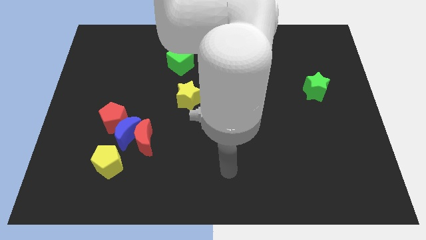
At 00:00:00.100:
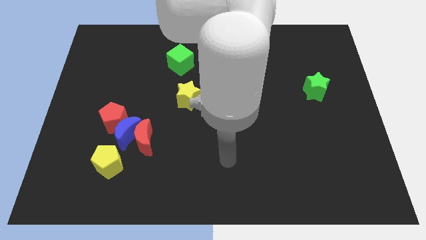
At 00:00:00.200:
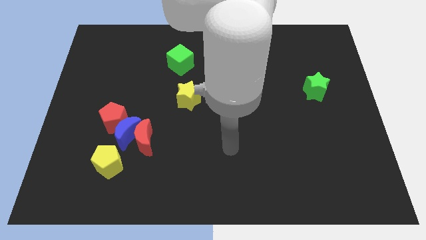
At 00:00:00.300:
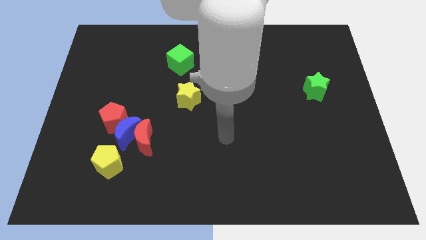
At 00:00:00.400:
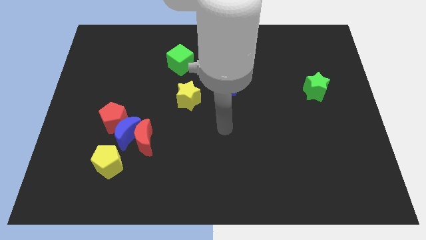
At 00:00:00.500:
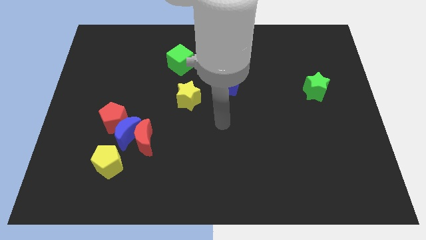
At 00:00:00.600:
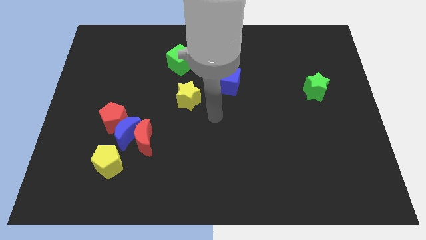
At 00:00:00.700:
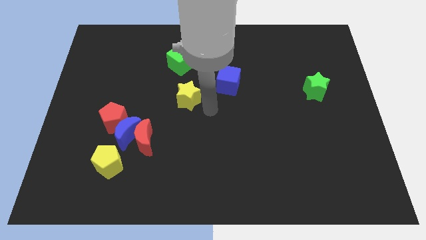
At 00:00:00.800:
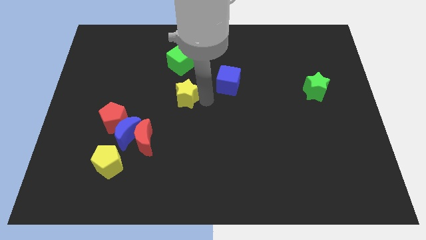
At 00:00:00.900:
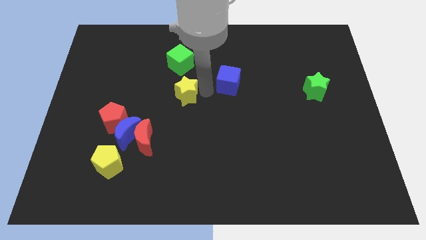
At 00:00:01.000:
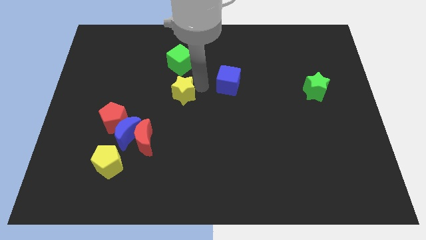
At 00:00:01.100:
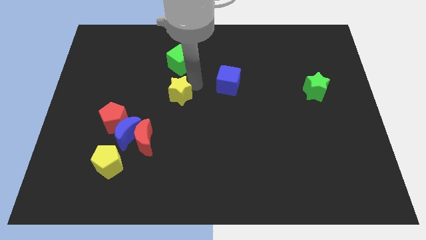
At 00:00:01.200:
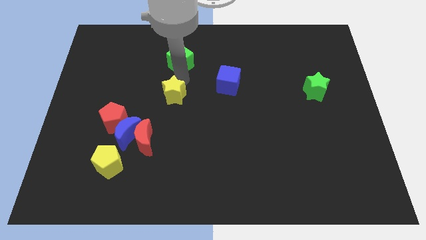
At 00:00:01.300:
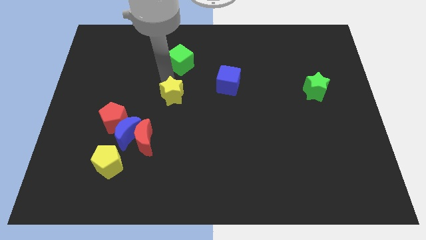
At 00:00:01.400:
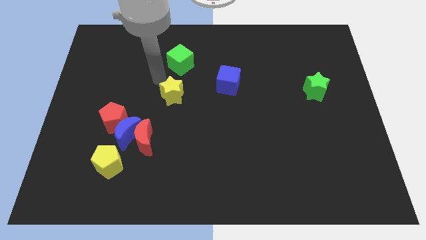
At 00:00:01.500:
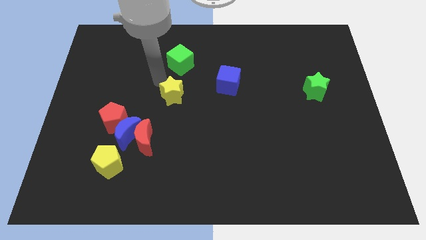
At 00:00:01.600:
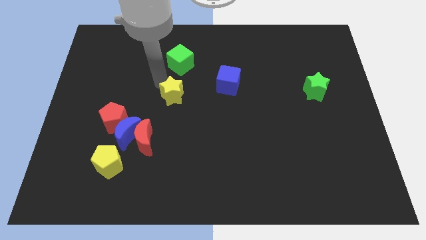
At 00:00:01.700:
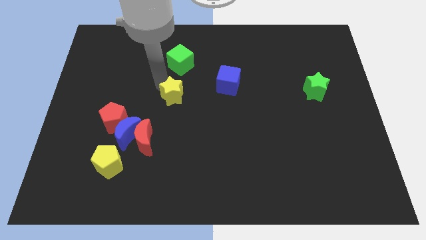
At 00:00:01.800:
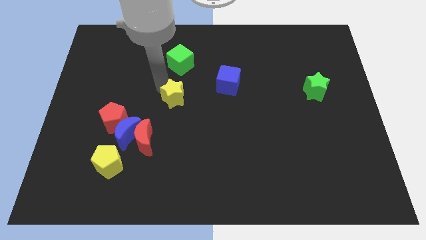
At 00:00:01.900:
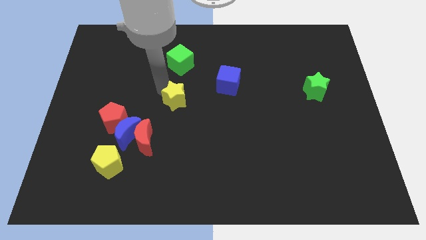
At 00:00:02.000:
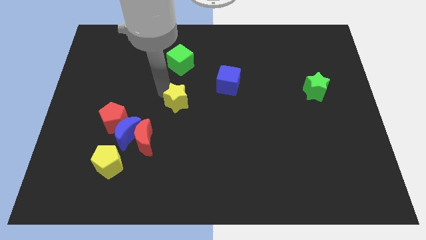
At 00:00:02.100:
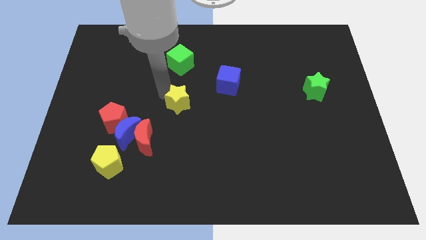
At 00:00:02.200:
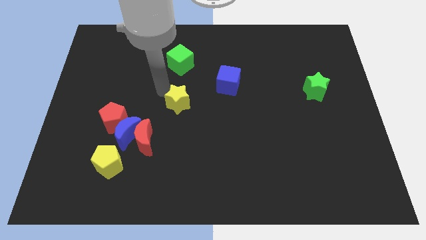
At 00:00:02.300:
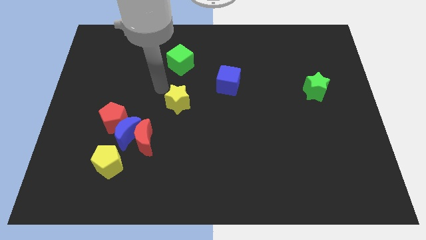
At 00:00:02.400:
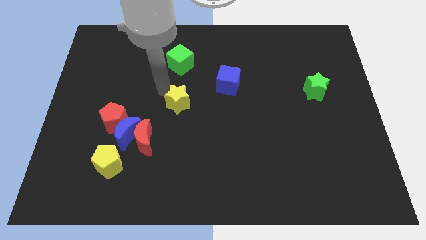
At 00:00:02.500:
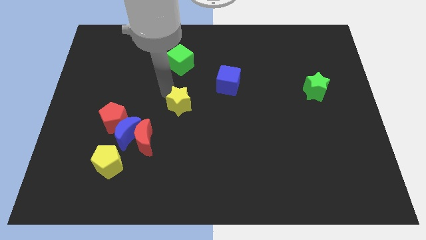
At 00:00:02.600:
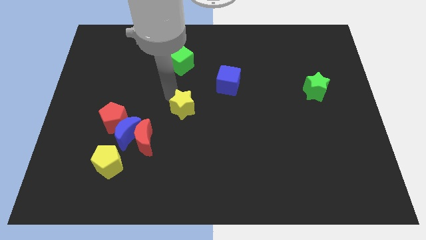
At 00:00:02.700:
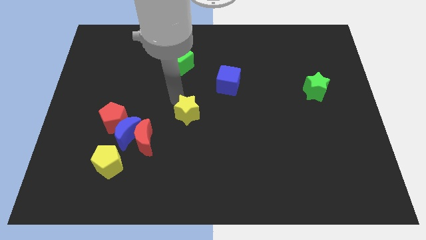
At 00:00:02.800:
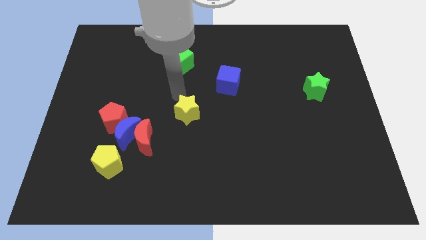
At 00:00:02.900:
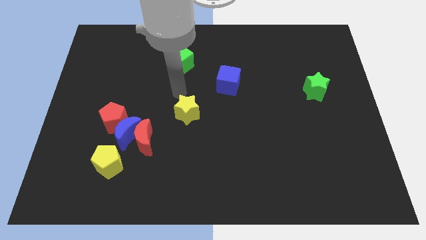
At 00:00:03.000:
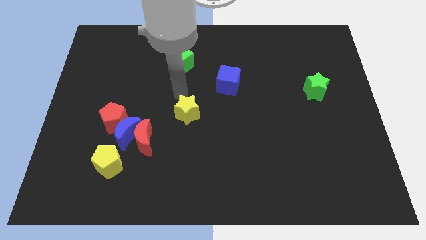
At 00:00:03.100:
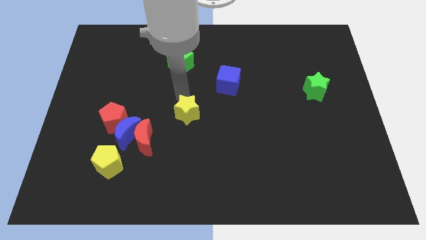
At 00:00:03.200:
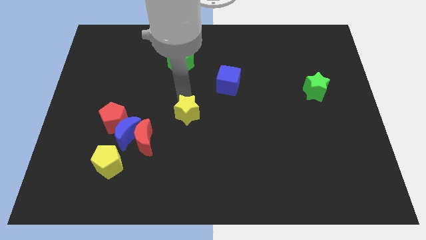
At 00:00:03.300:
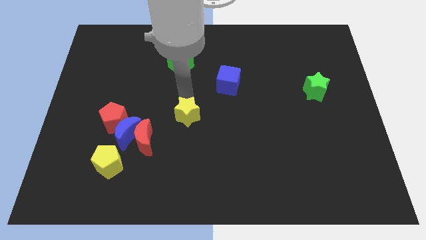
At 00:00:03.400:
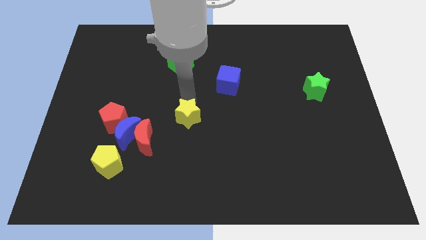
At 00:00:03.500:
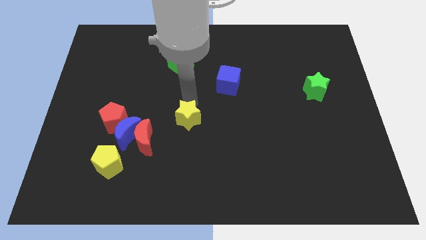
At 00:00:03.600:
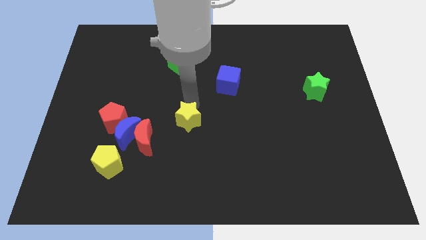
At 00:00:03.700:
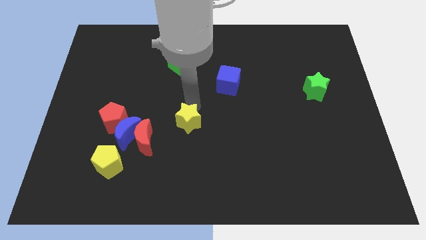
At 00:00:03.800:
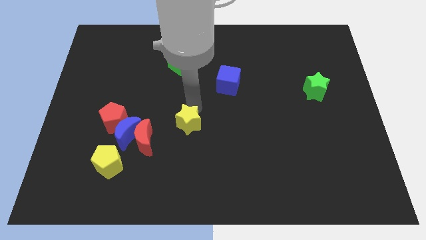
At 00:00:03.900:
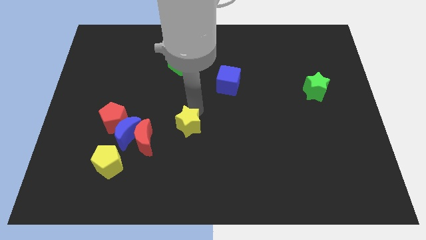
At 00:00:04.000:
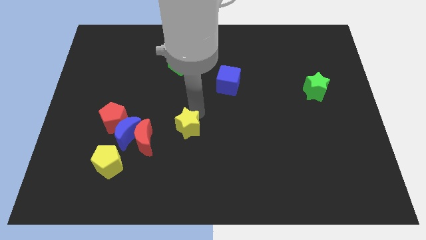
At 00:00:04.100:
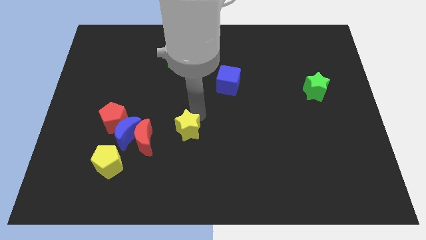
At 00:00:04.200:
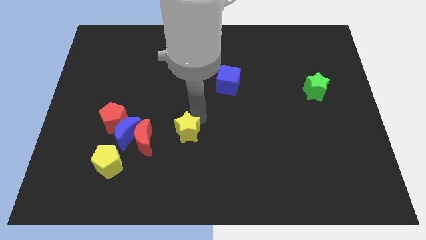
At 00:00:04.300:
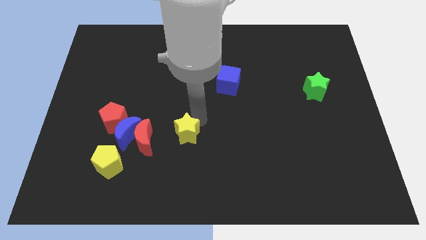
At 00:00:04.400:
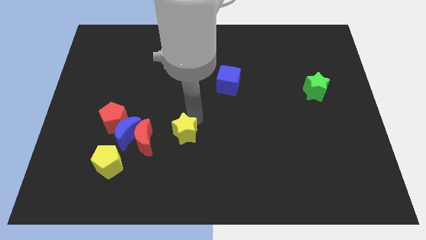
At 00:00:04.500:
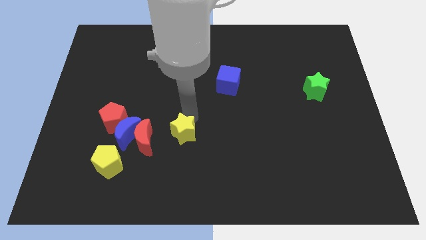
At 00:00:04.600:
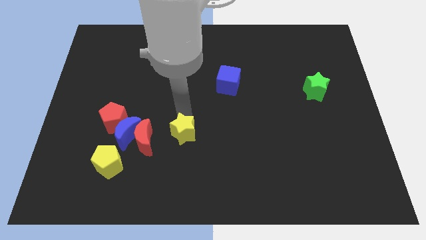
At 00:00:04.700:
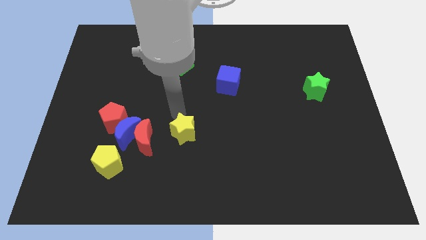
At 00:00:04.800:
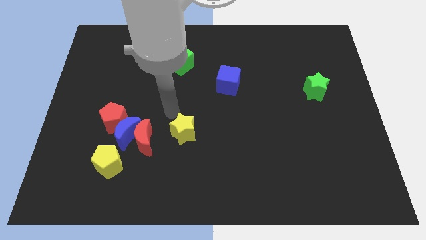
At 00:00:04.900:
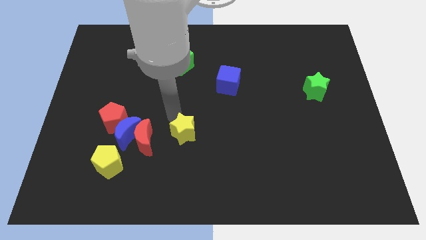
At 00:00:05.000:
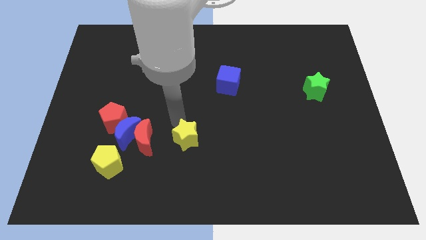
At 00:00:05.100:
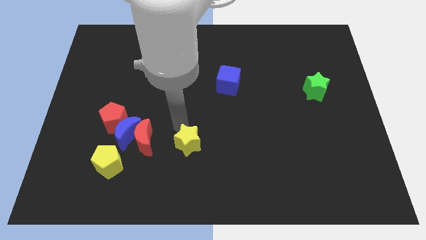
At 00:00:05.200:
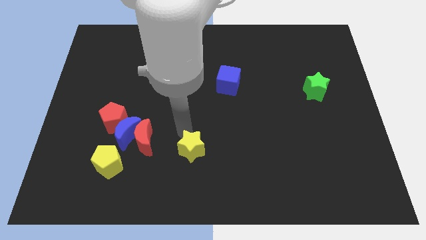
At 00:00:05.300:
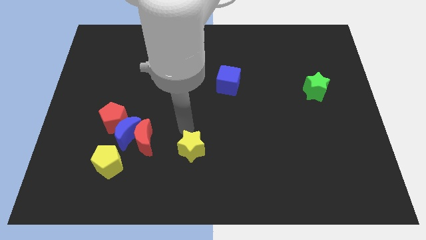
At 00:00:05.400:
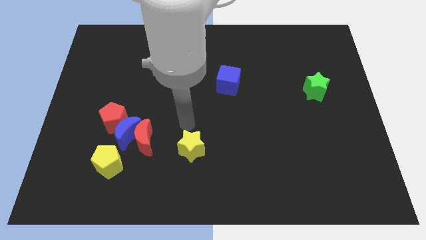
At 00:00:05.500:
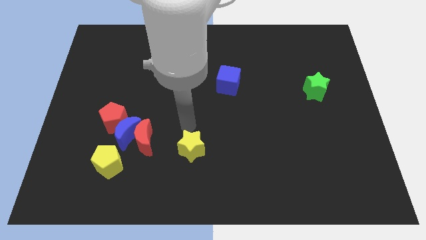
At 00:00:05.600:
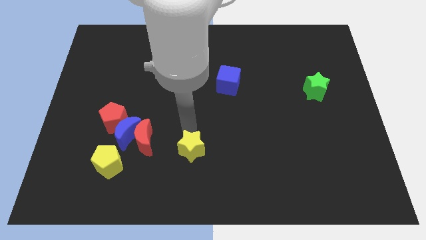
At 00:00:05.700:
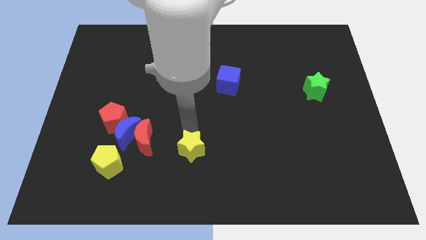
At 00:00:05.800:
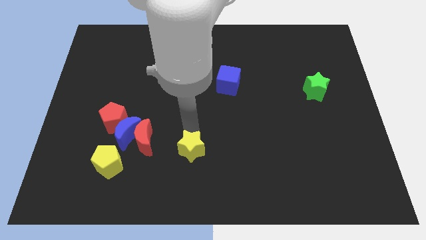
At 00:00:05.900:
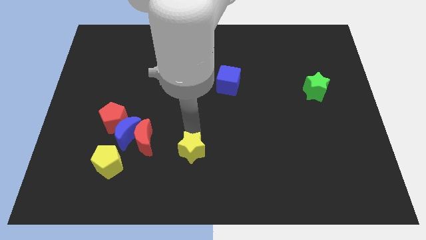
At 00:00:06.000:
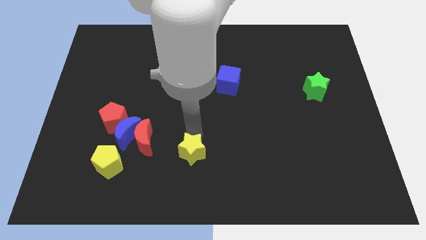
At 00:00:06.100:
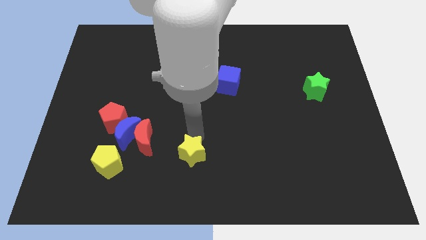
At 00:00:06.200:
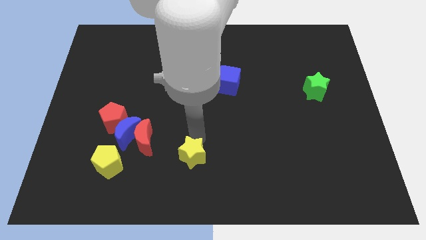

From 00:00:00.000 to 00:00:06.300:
move the yellow star to the bottom side

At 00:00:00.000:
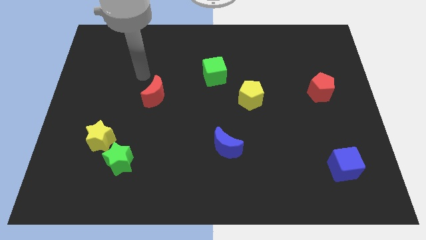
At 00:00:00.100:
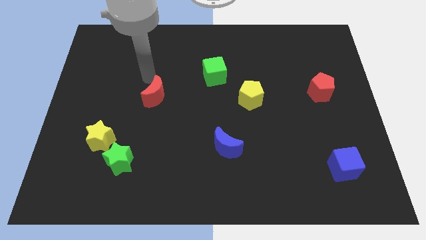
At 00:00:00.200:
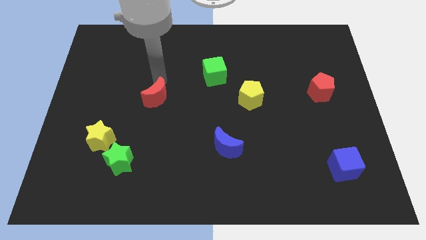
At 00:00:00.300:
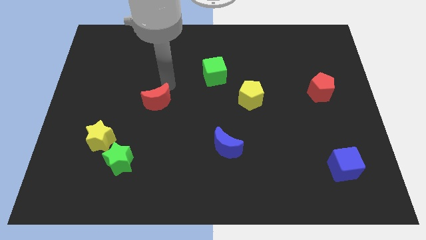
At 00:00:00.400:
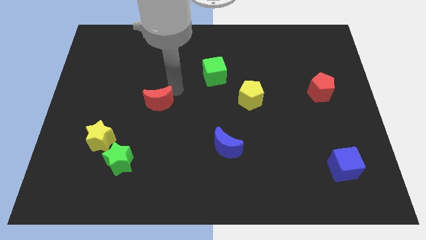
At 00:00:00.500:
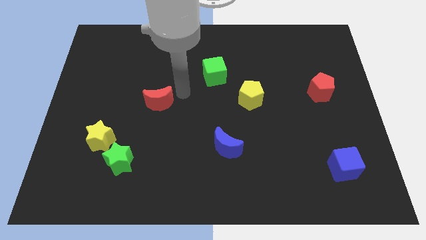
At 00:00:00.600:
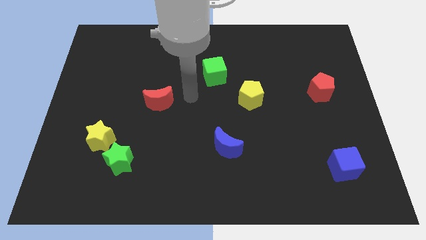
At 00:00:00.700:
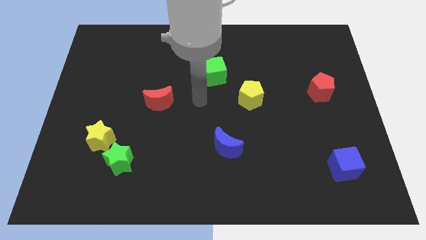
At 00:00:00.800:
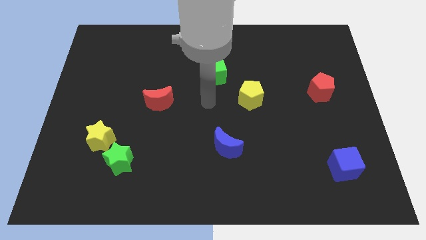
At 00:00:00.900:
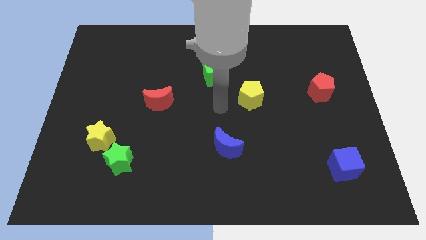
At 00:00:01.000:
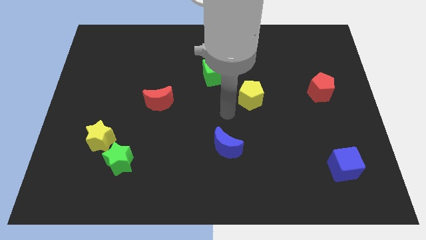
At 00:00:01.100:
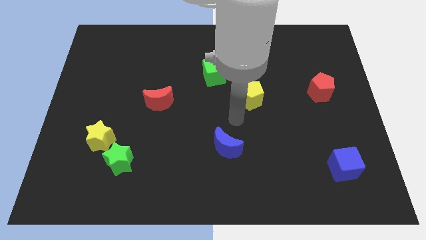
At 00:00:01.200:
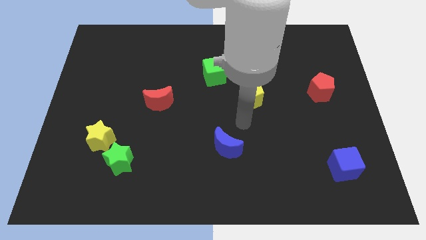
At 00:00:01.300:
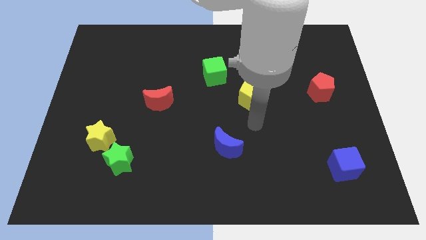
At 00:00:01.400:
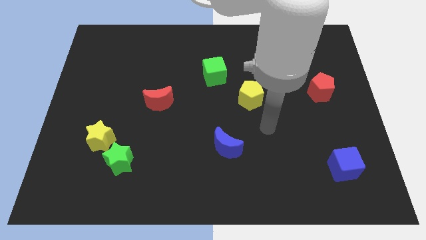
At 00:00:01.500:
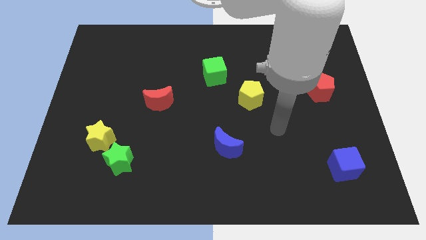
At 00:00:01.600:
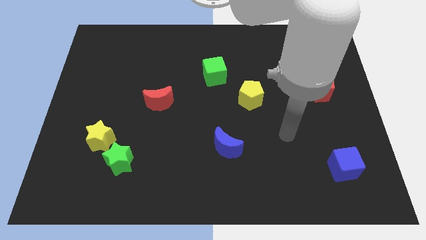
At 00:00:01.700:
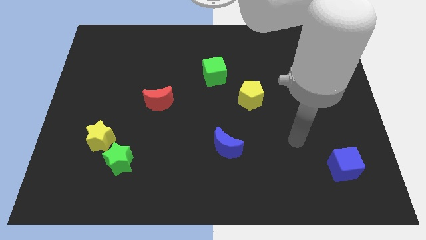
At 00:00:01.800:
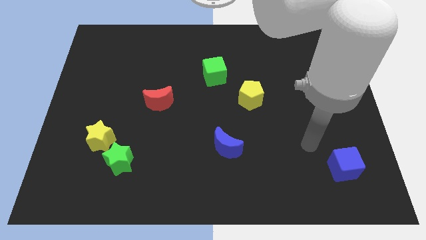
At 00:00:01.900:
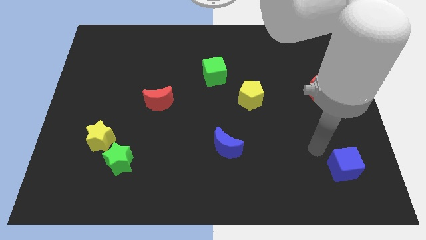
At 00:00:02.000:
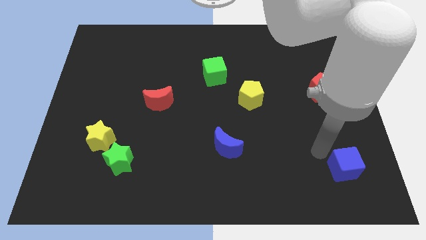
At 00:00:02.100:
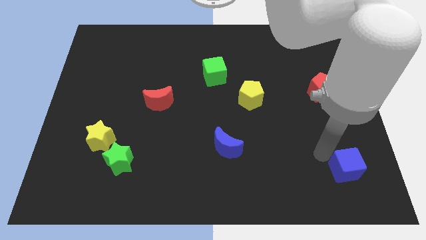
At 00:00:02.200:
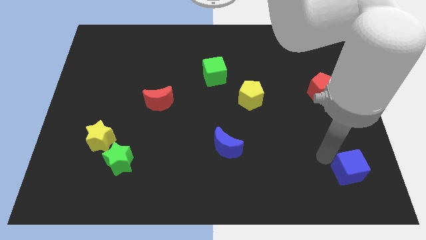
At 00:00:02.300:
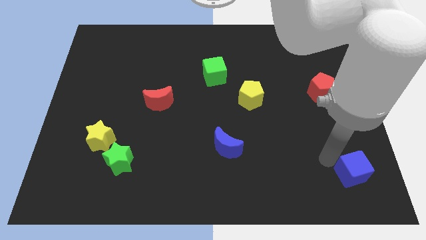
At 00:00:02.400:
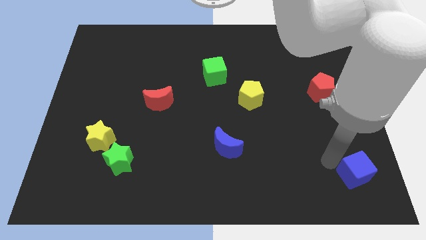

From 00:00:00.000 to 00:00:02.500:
slide the blue cube to the lower right corner
